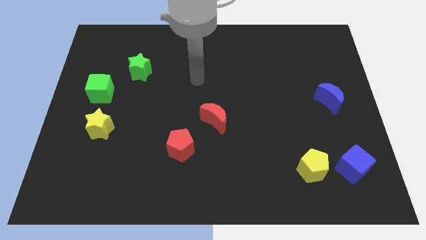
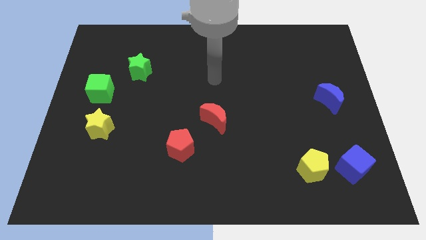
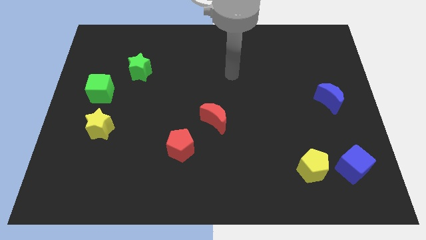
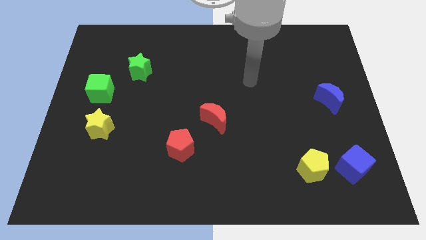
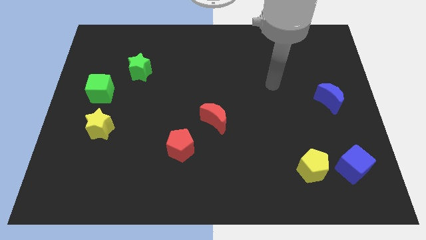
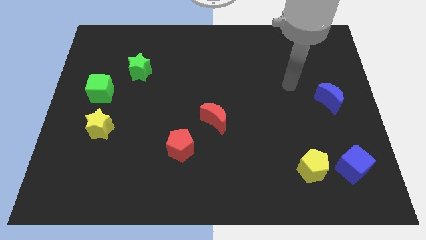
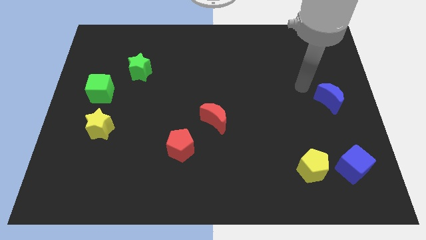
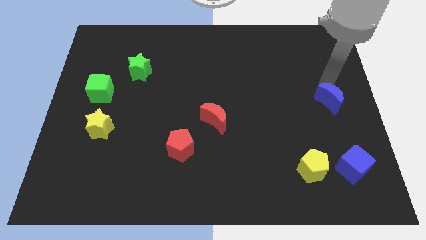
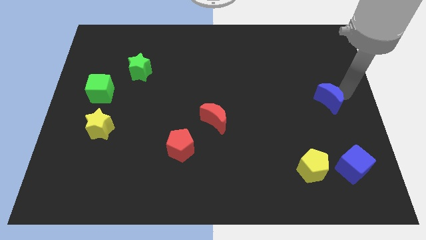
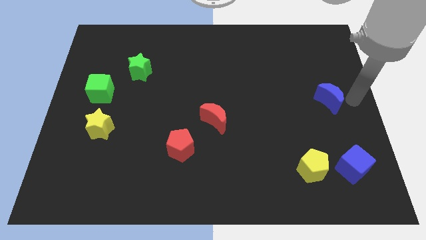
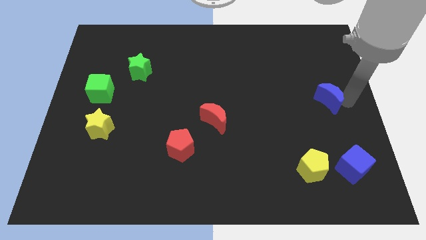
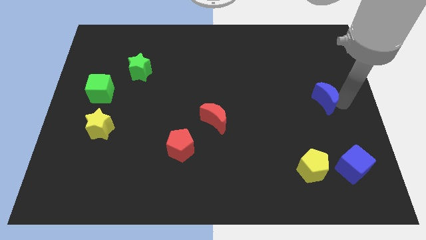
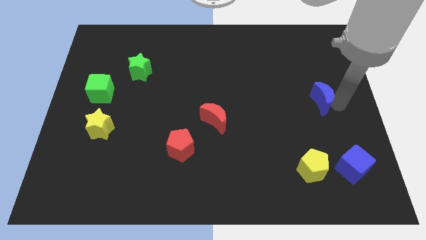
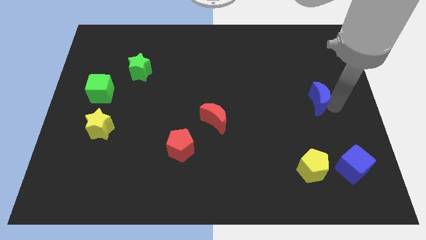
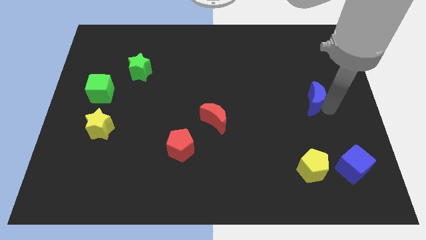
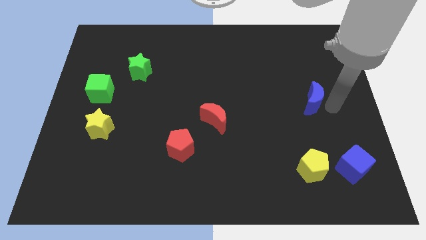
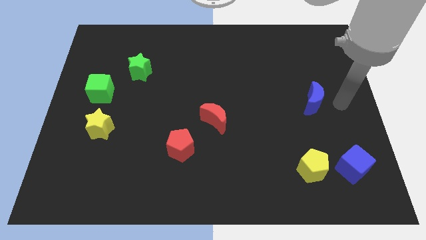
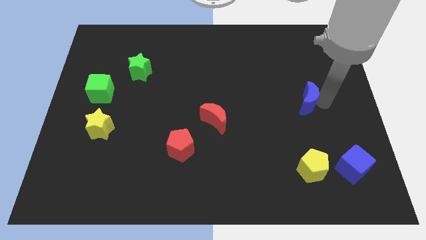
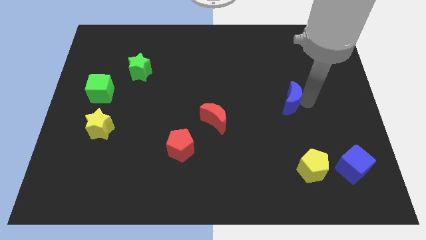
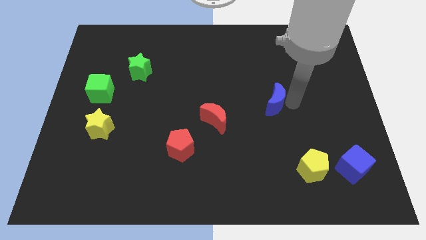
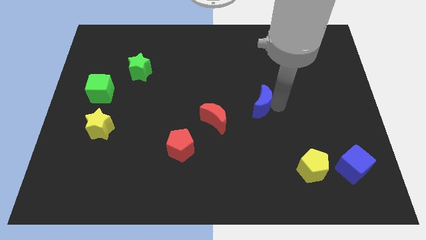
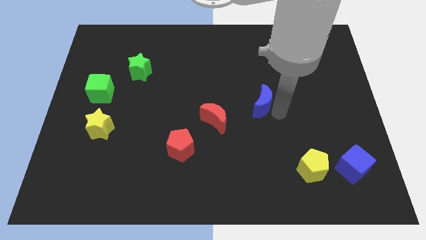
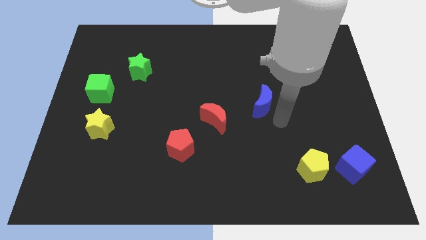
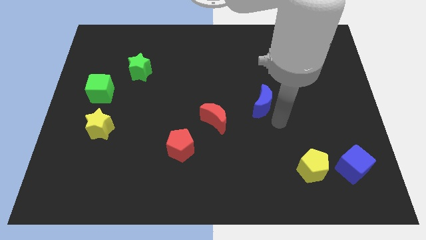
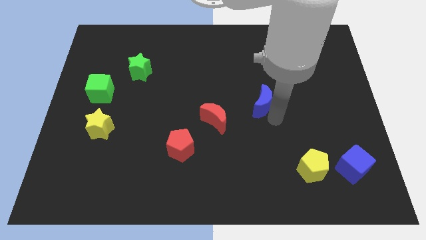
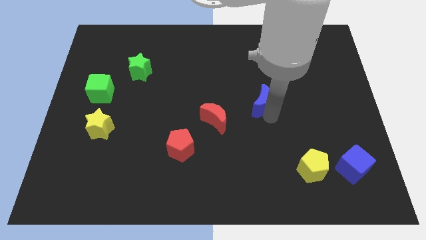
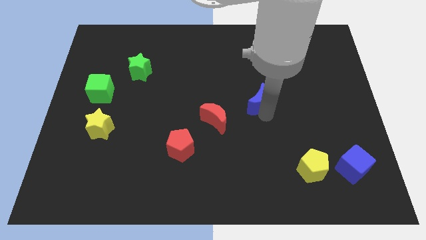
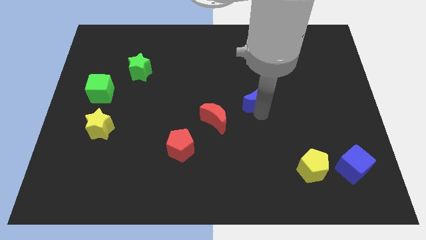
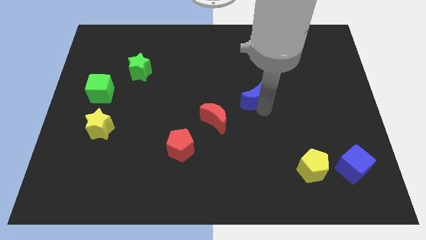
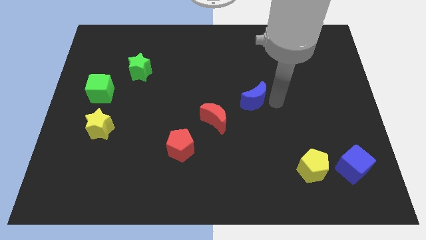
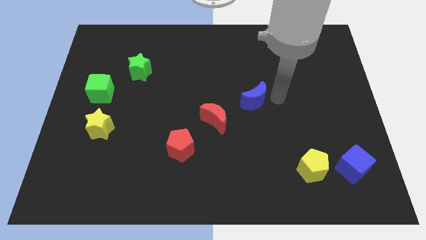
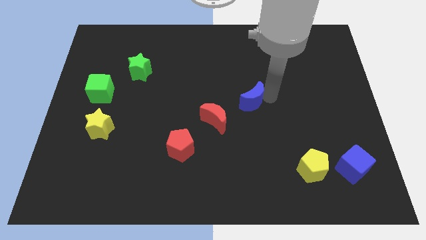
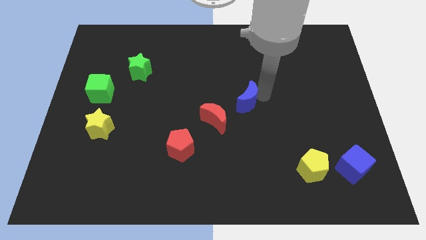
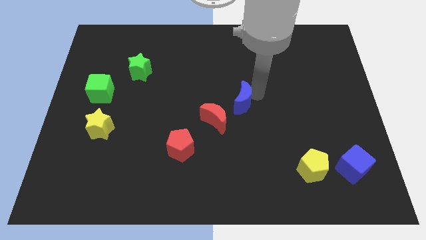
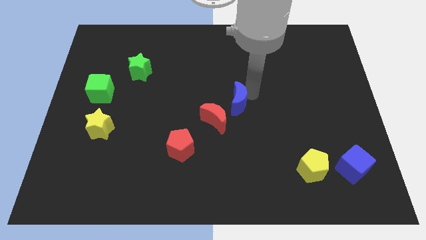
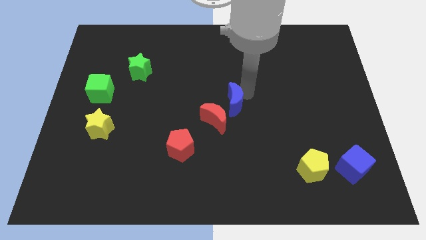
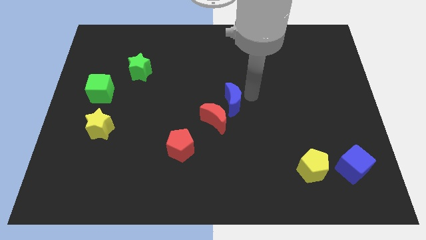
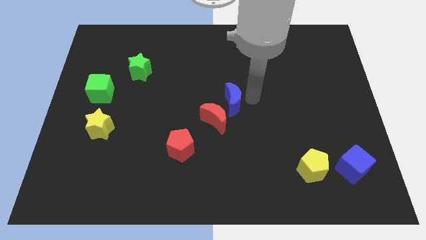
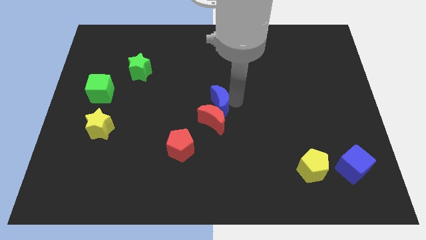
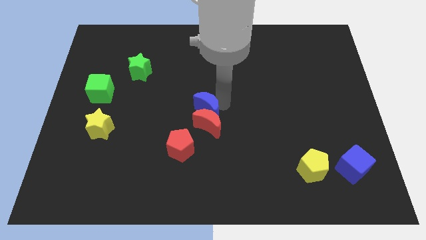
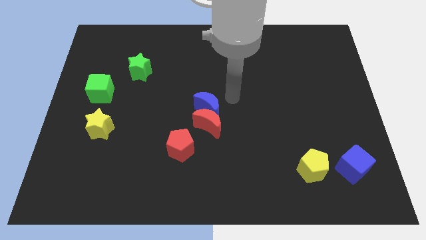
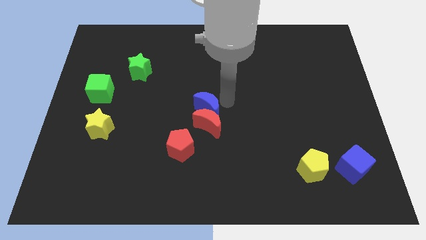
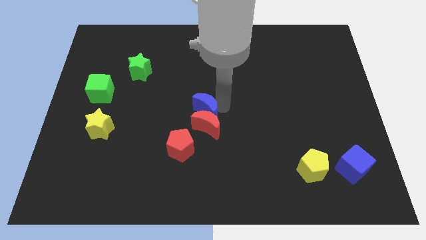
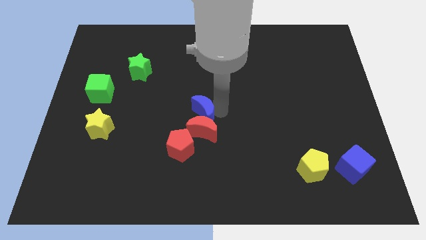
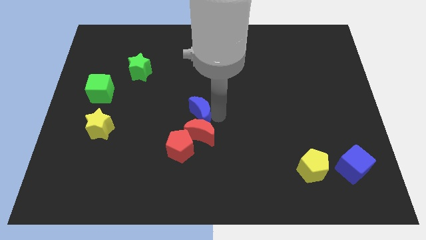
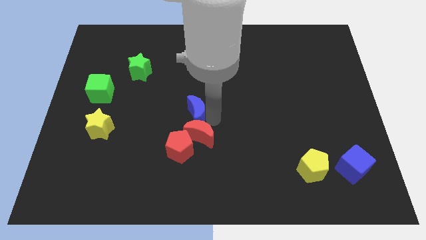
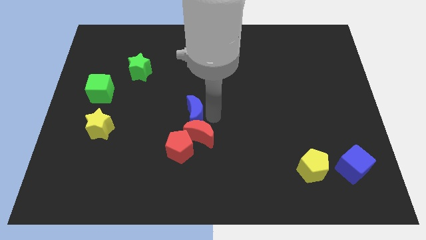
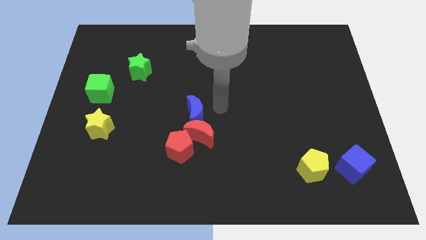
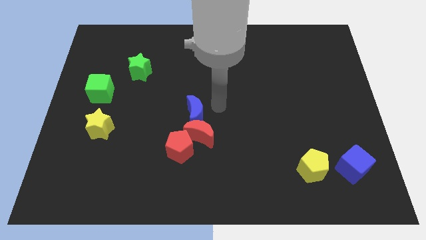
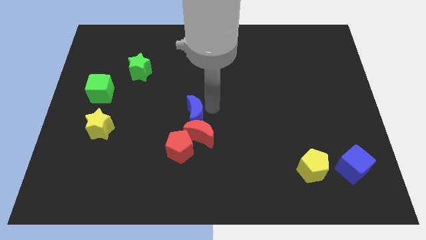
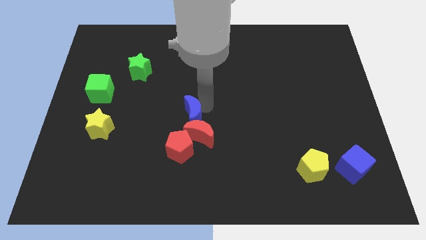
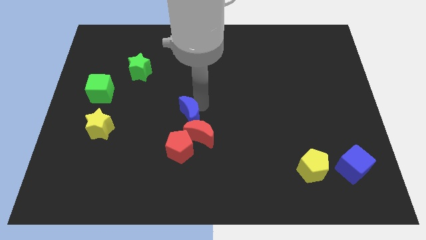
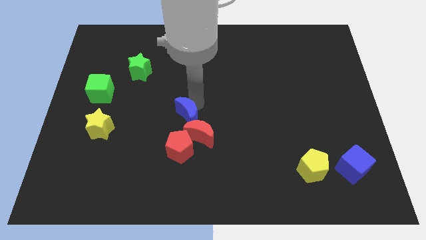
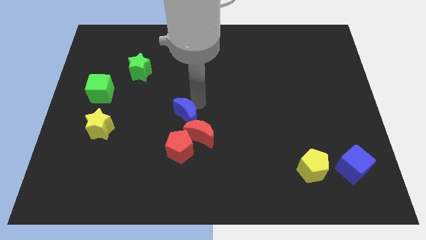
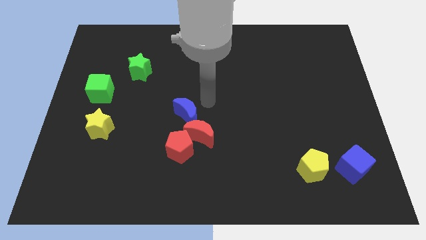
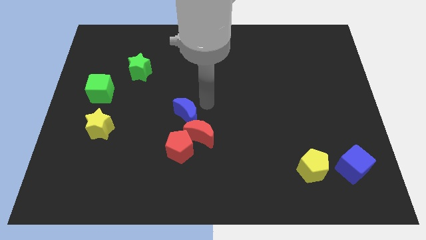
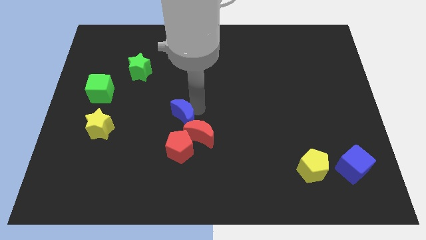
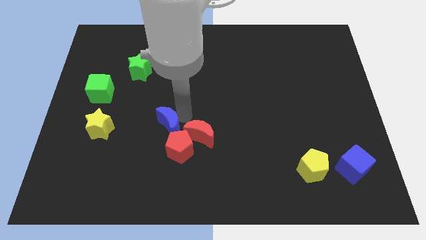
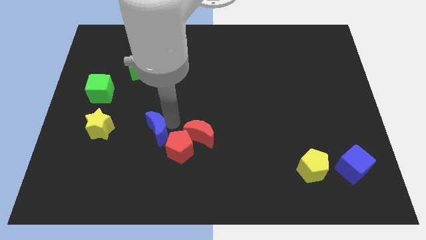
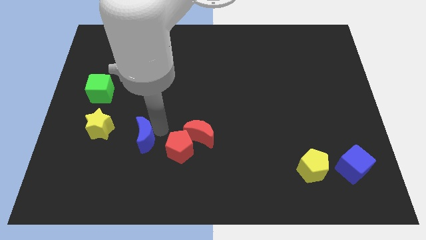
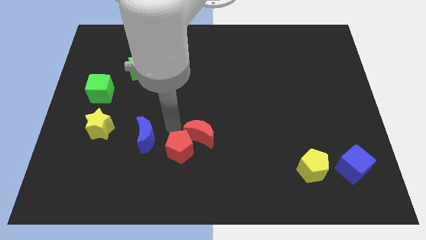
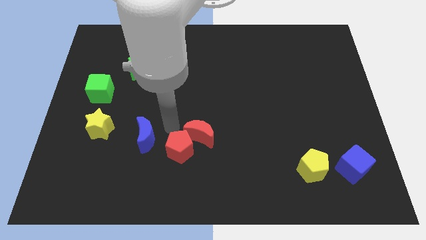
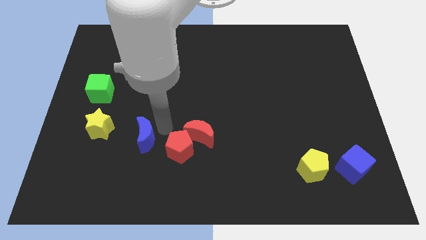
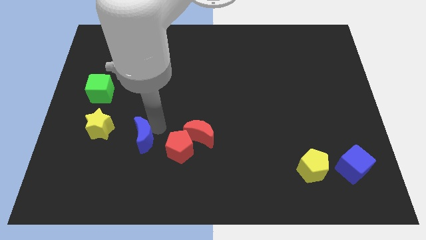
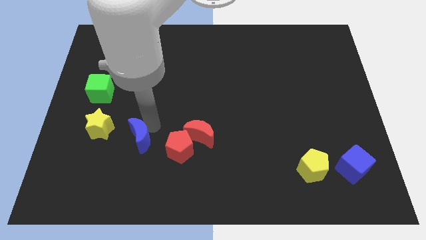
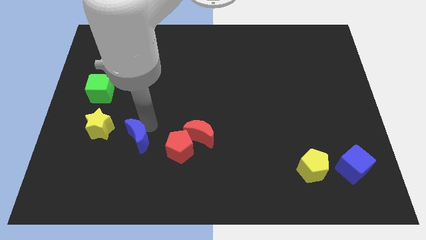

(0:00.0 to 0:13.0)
put the blue moon diagonally down and to the right of the yellow star

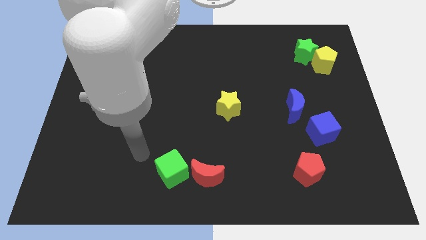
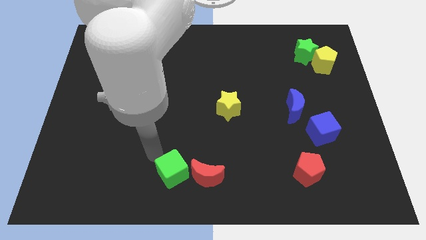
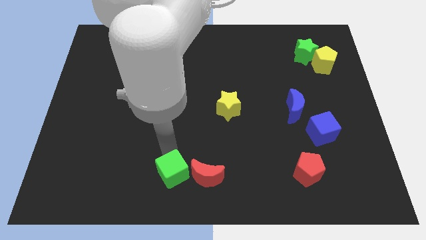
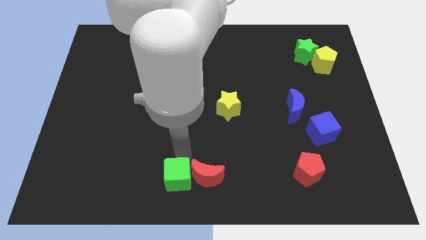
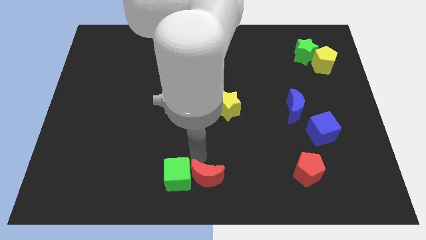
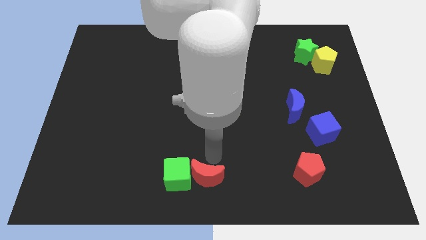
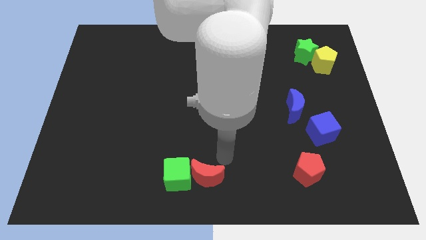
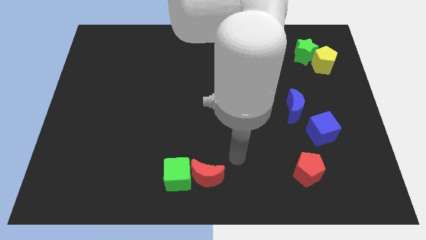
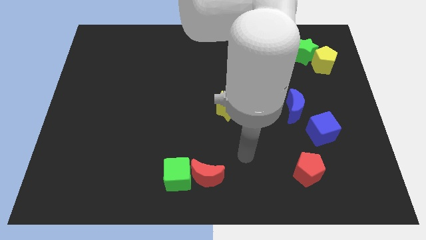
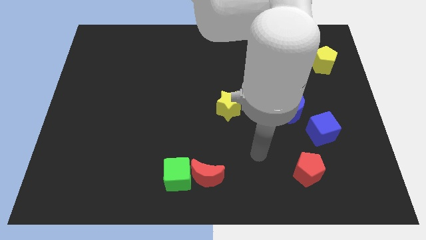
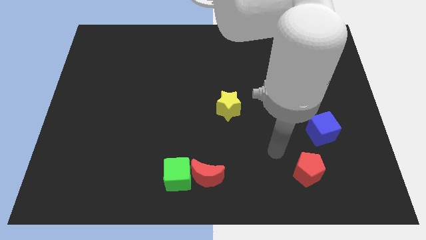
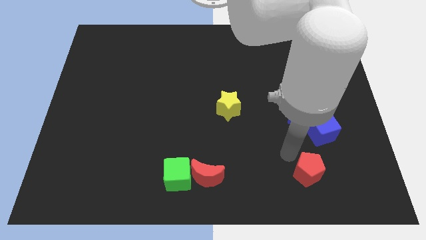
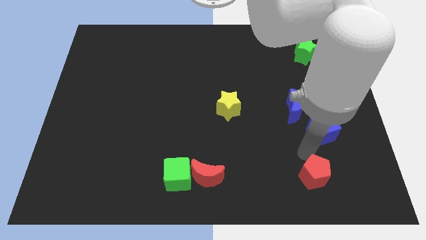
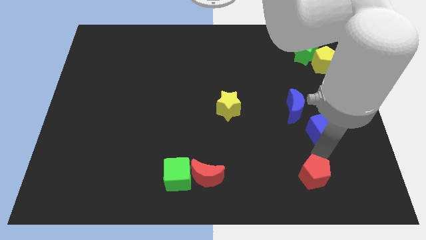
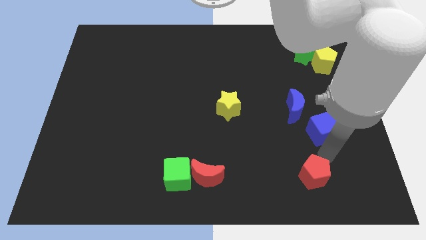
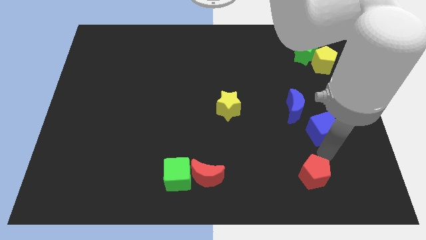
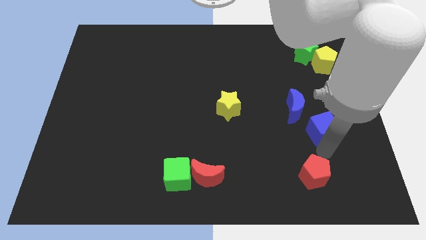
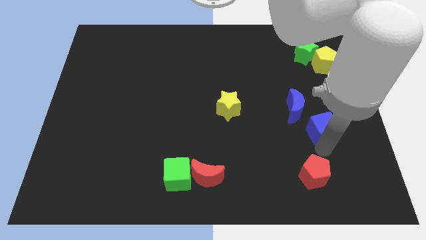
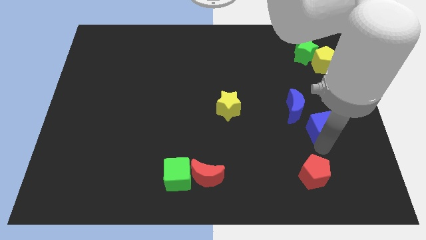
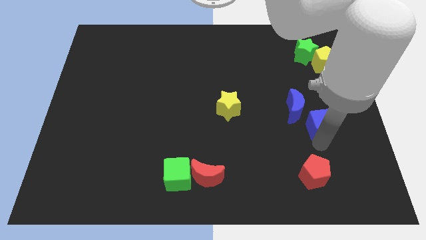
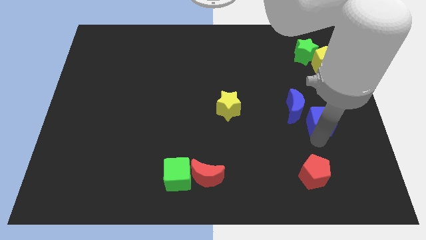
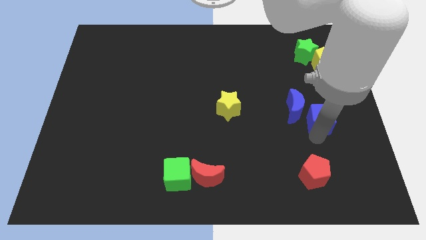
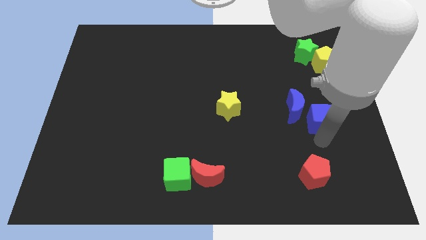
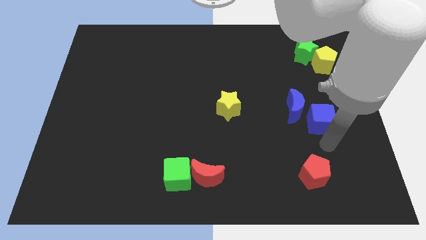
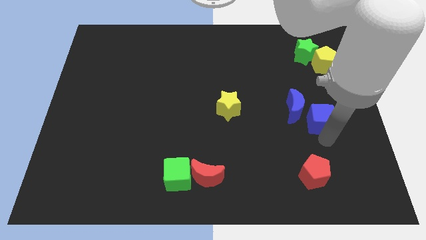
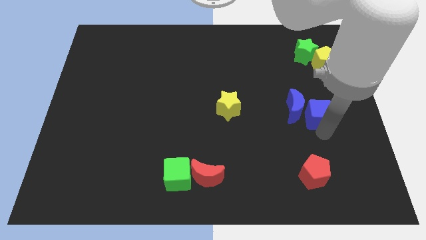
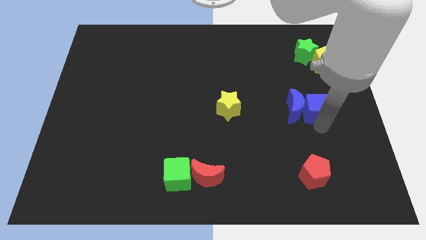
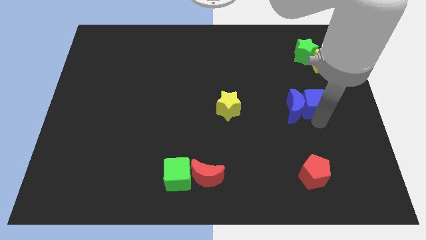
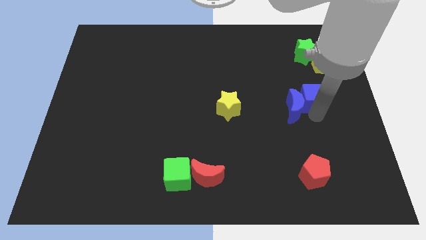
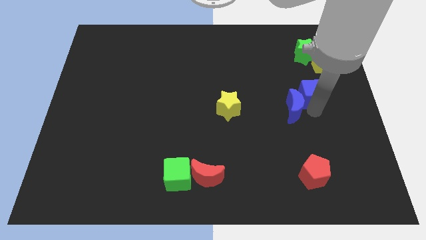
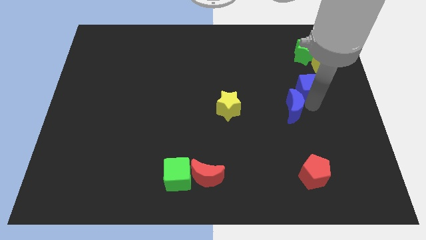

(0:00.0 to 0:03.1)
move the blue cube to the bottom left of the yellow pentagon
